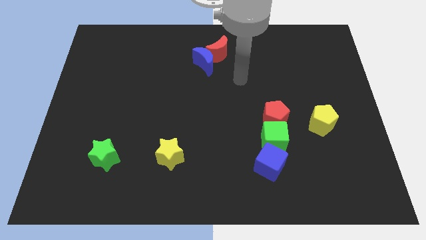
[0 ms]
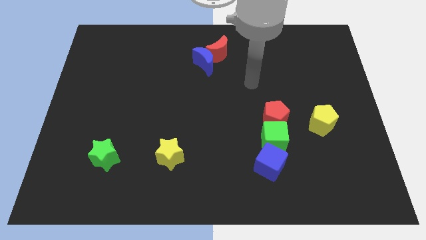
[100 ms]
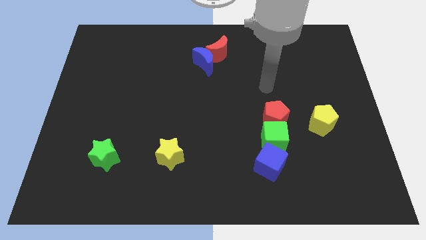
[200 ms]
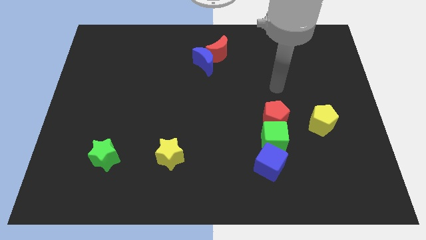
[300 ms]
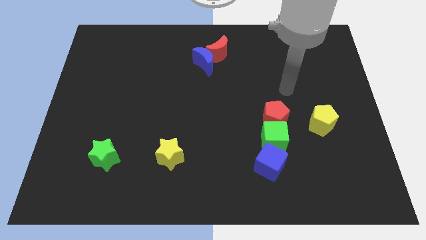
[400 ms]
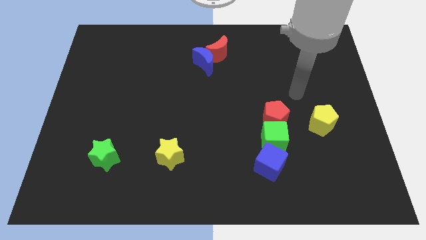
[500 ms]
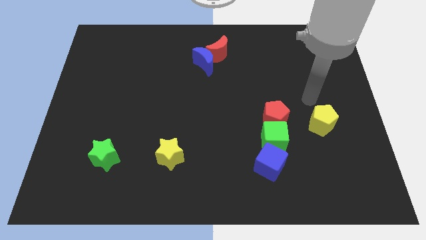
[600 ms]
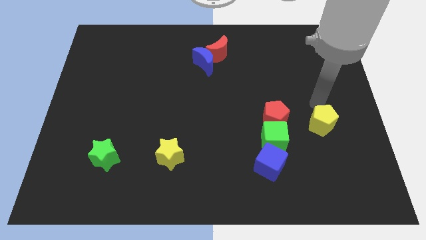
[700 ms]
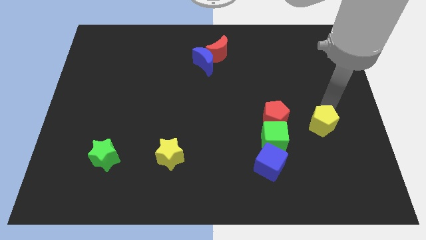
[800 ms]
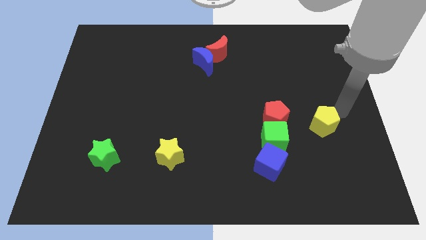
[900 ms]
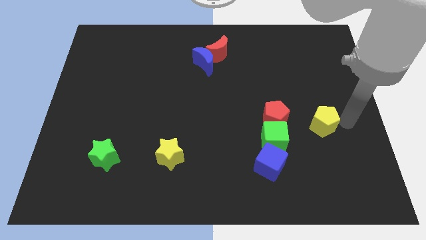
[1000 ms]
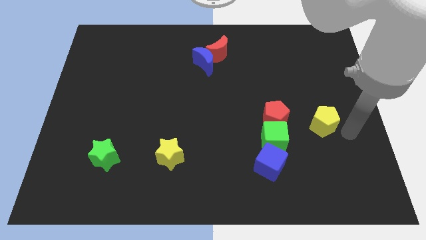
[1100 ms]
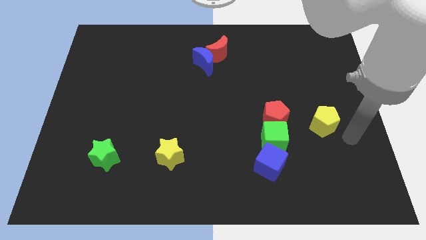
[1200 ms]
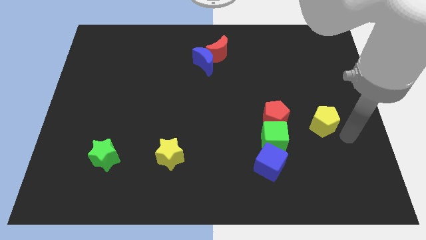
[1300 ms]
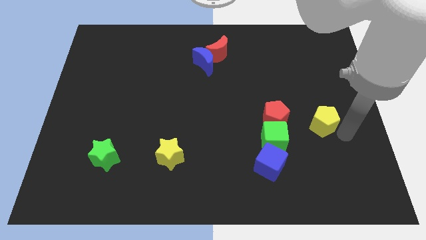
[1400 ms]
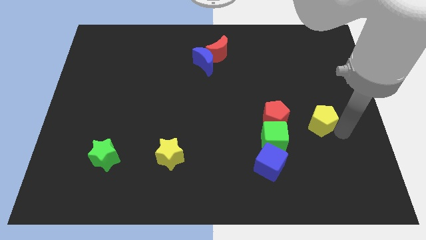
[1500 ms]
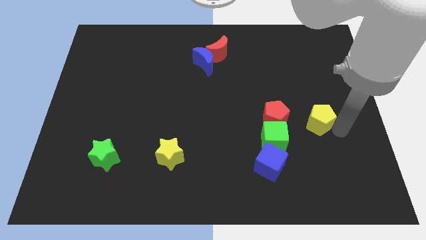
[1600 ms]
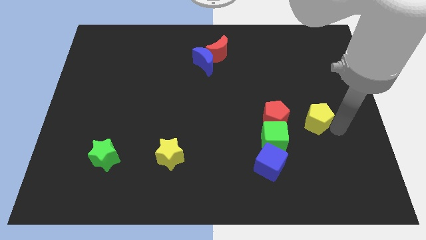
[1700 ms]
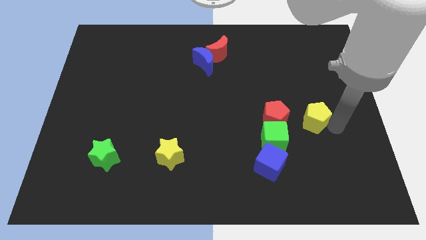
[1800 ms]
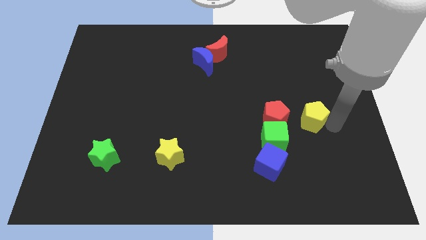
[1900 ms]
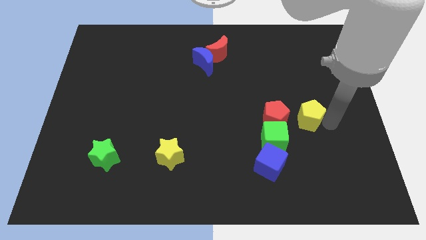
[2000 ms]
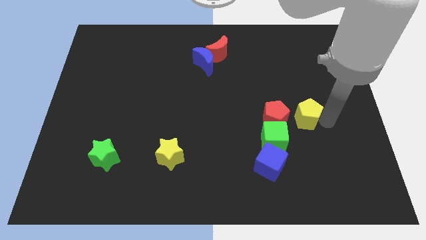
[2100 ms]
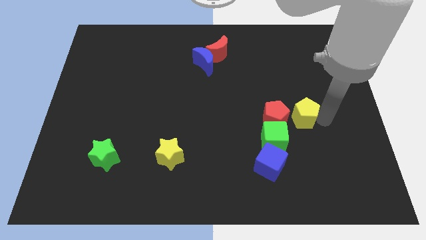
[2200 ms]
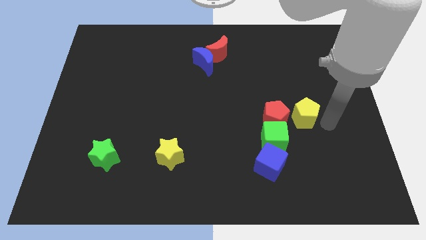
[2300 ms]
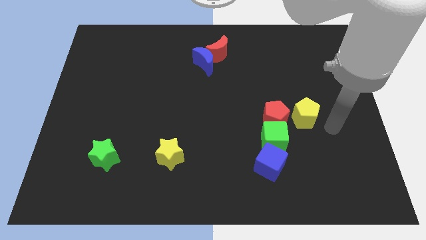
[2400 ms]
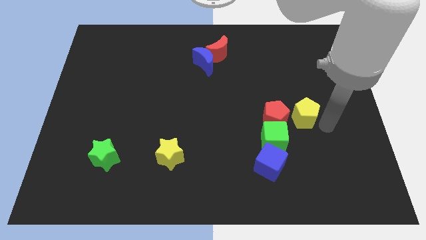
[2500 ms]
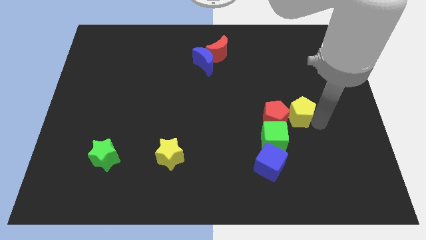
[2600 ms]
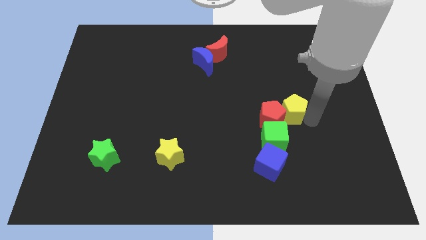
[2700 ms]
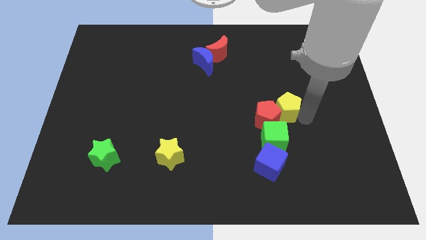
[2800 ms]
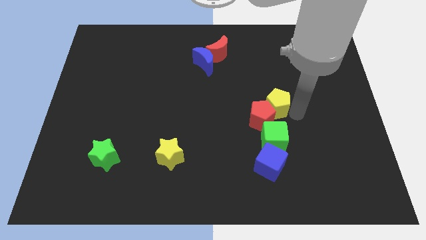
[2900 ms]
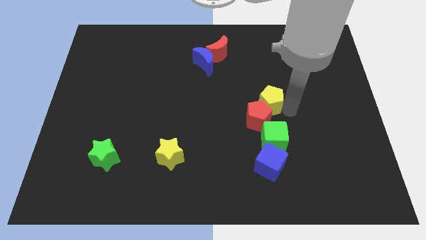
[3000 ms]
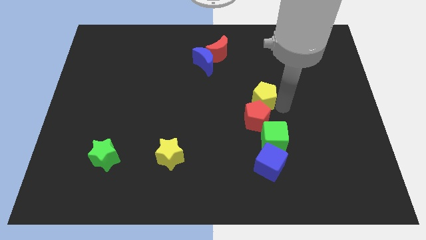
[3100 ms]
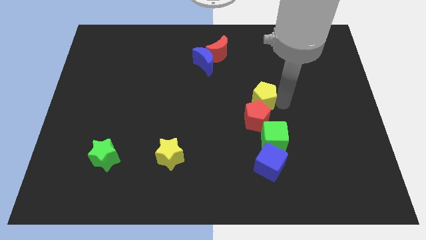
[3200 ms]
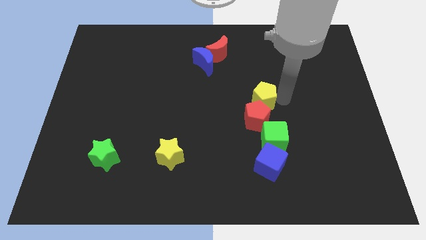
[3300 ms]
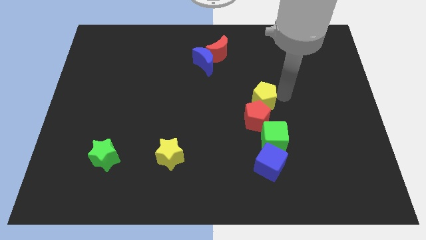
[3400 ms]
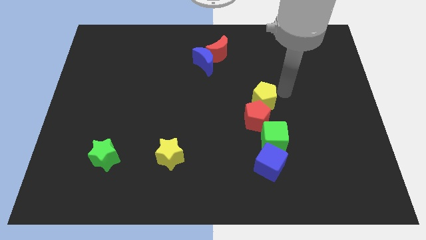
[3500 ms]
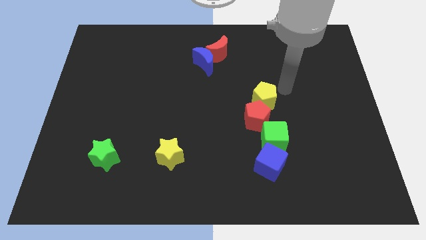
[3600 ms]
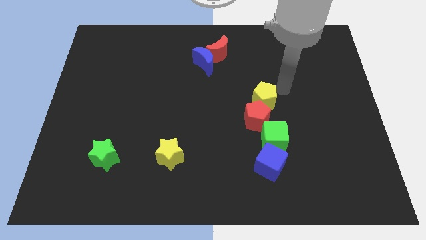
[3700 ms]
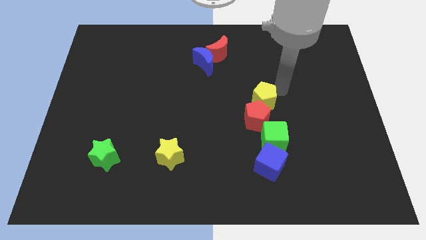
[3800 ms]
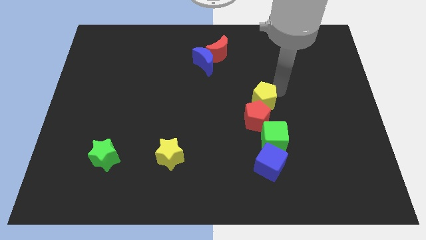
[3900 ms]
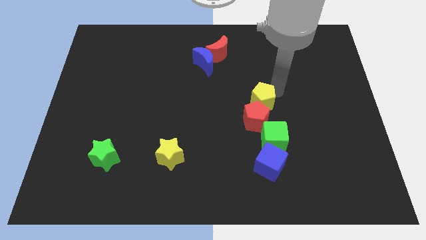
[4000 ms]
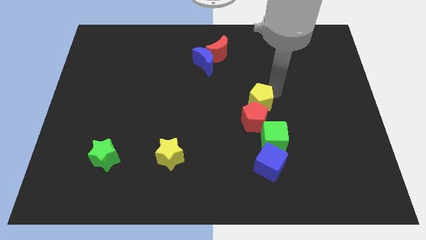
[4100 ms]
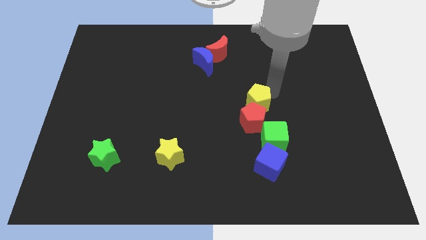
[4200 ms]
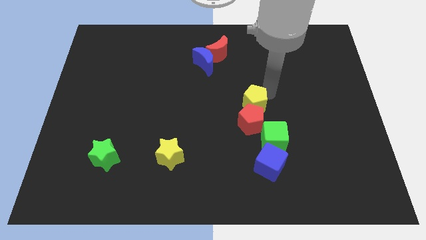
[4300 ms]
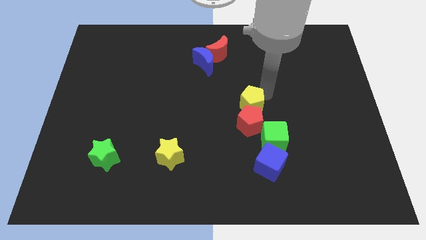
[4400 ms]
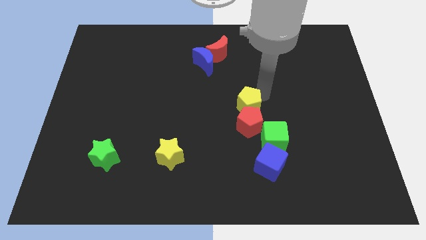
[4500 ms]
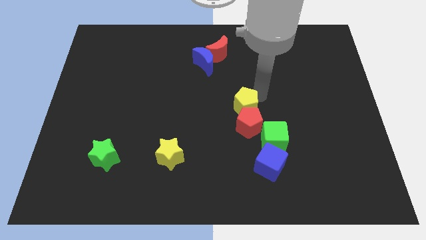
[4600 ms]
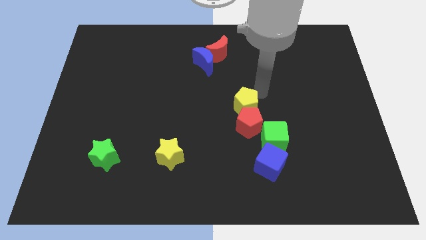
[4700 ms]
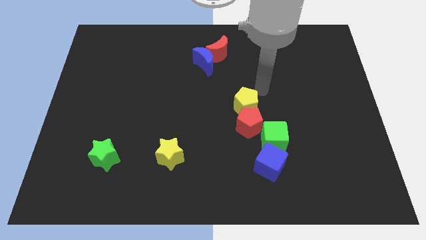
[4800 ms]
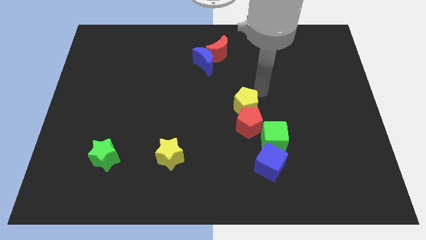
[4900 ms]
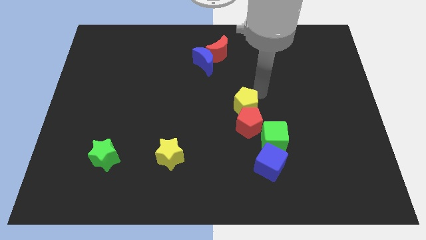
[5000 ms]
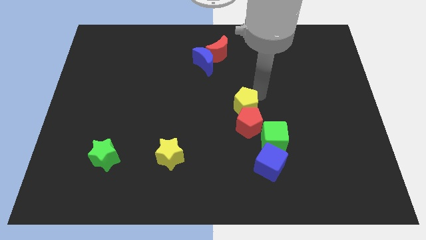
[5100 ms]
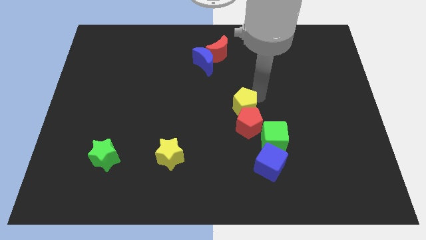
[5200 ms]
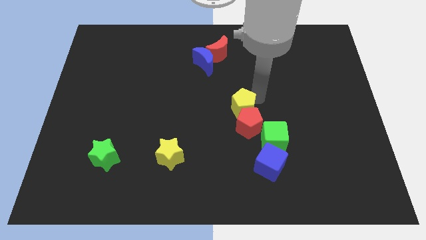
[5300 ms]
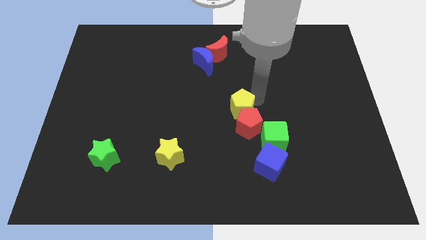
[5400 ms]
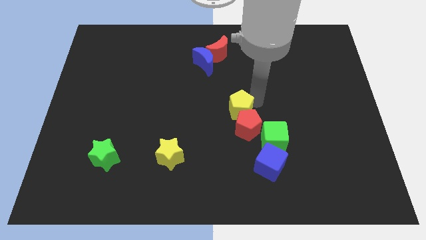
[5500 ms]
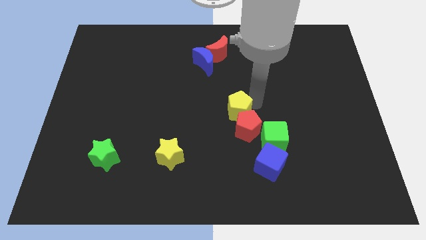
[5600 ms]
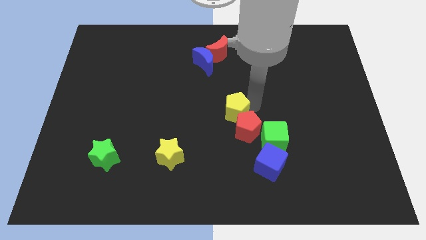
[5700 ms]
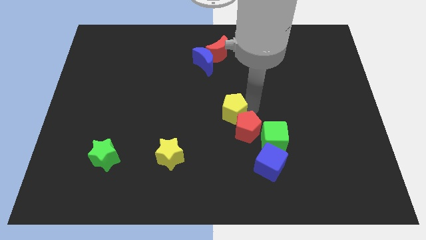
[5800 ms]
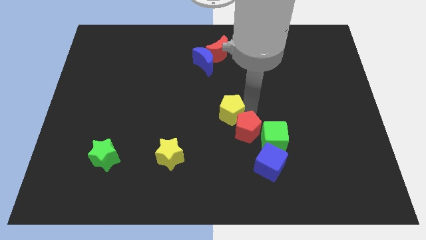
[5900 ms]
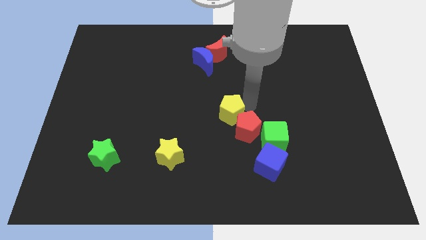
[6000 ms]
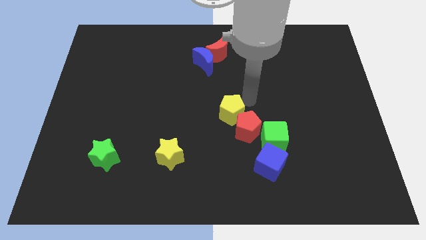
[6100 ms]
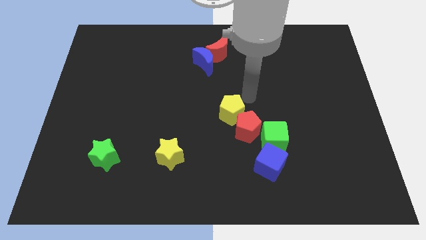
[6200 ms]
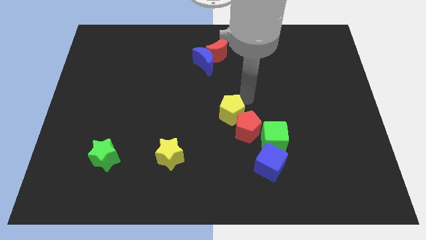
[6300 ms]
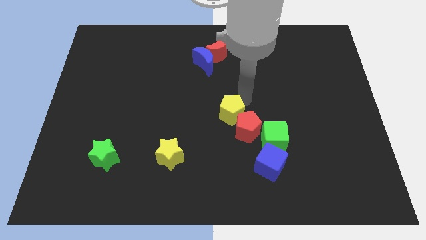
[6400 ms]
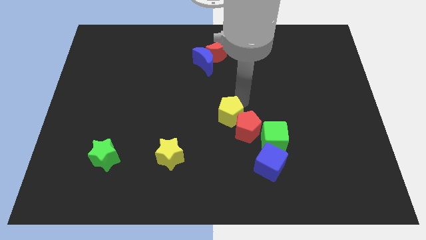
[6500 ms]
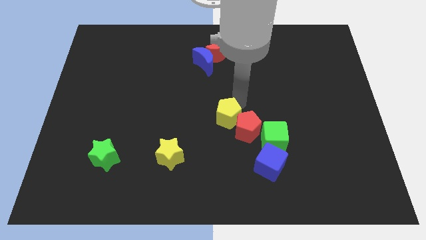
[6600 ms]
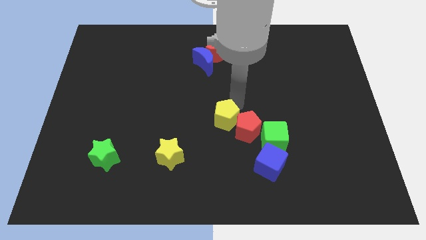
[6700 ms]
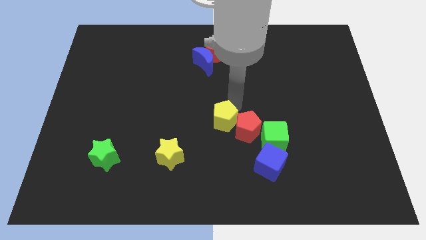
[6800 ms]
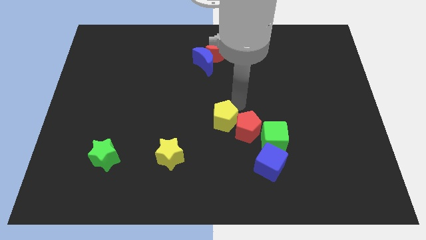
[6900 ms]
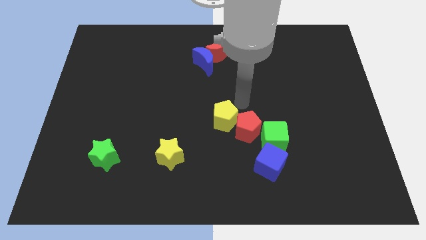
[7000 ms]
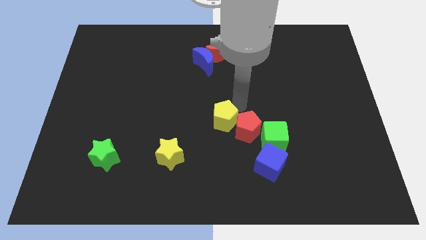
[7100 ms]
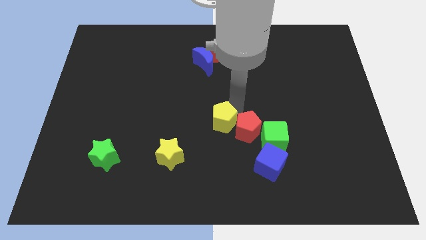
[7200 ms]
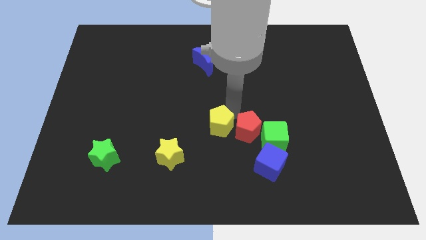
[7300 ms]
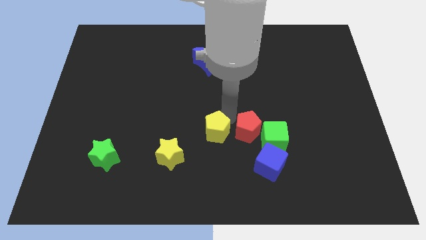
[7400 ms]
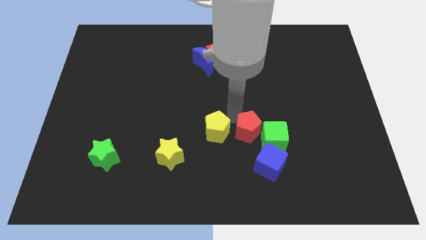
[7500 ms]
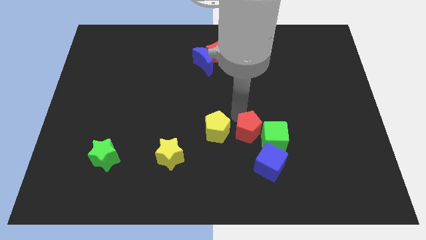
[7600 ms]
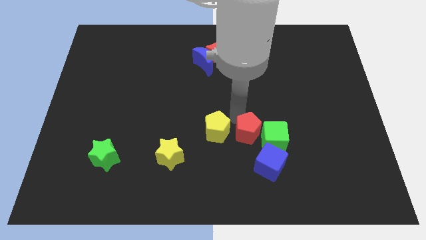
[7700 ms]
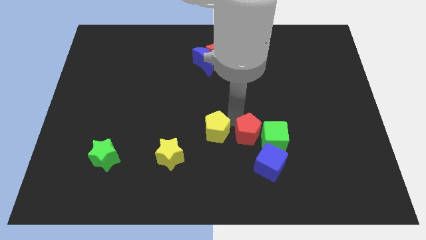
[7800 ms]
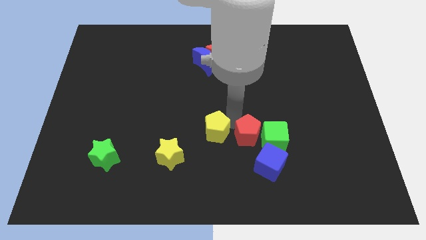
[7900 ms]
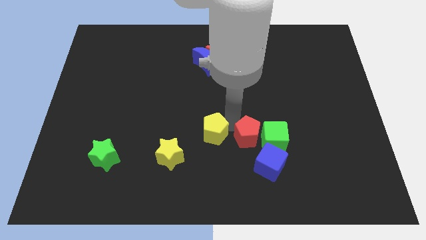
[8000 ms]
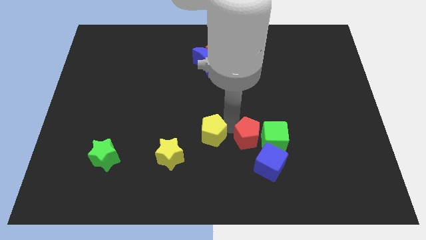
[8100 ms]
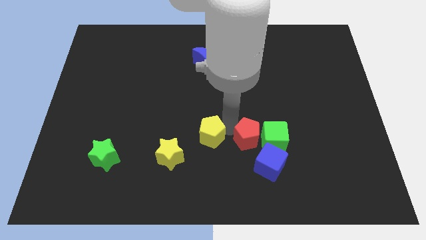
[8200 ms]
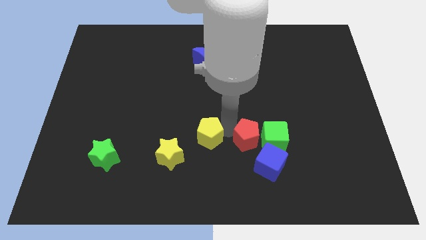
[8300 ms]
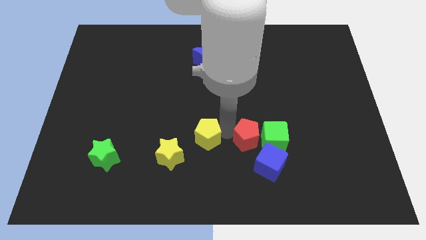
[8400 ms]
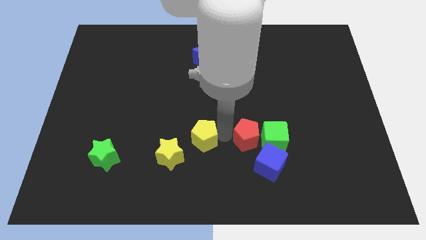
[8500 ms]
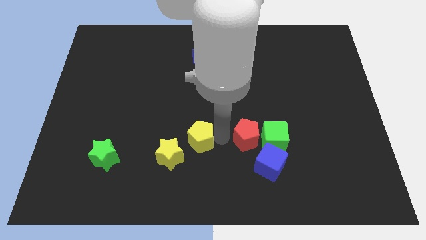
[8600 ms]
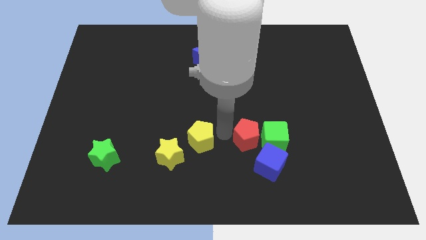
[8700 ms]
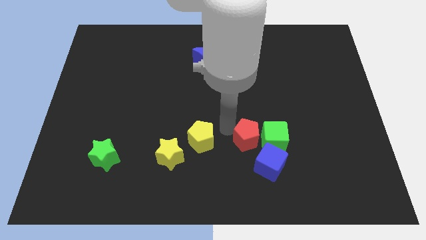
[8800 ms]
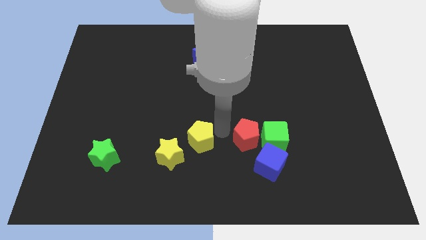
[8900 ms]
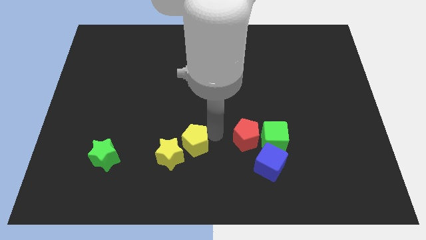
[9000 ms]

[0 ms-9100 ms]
put the yellow pentagon to the yellow star
